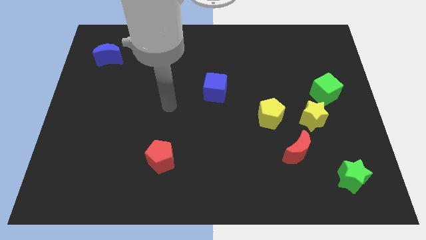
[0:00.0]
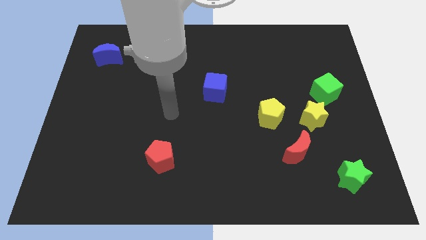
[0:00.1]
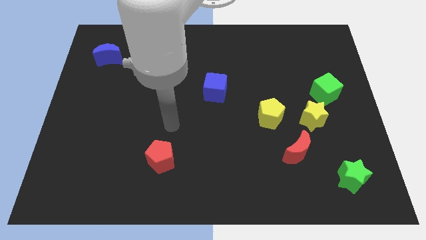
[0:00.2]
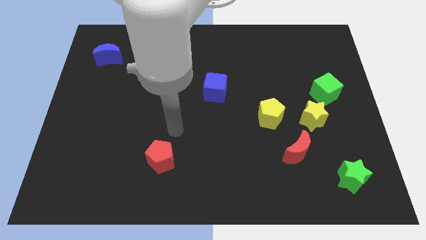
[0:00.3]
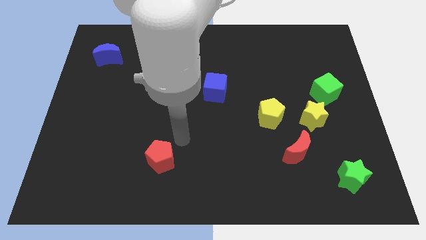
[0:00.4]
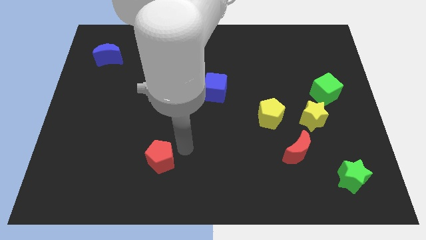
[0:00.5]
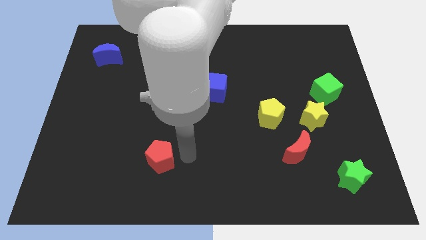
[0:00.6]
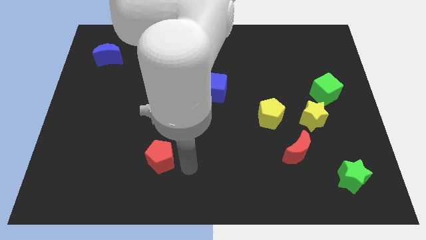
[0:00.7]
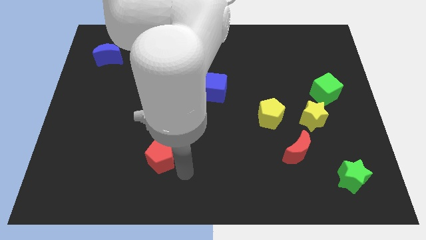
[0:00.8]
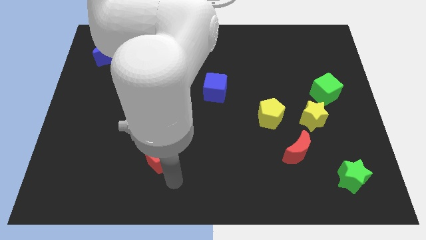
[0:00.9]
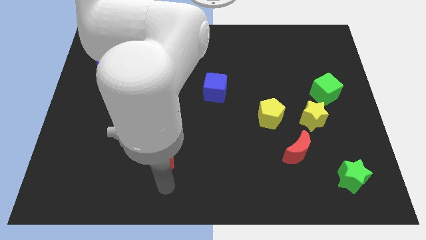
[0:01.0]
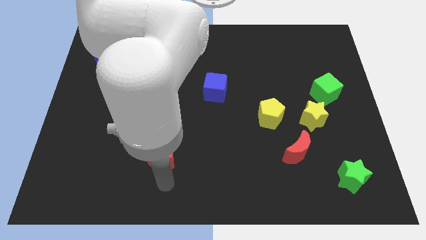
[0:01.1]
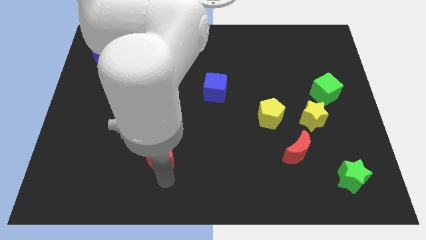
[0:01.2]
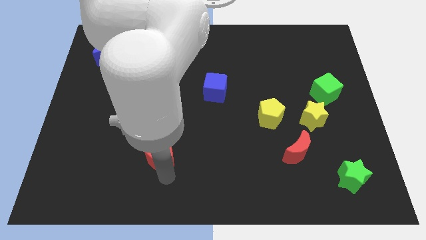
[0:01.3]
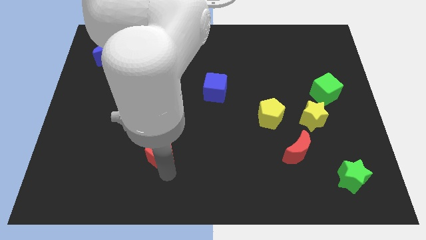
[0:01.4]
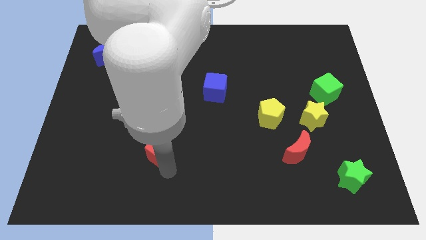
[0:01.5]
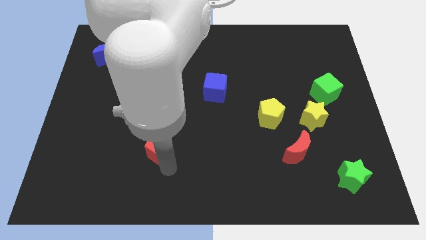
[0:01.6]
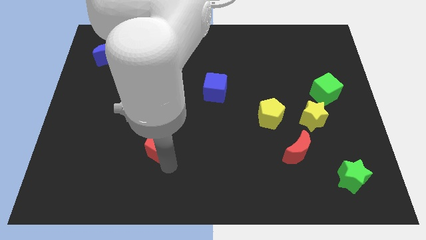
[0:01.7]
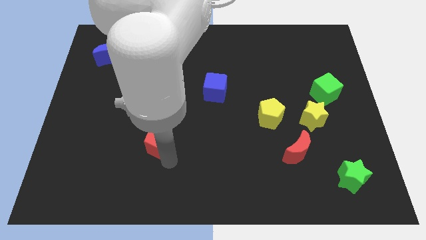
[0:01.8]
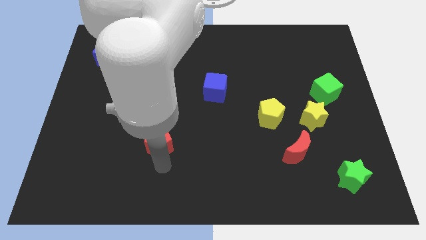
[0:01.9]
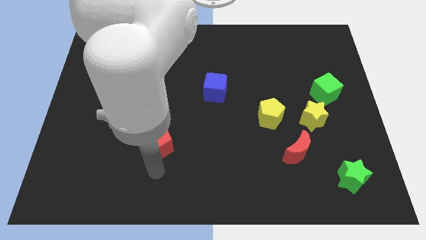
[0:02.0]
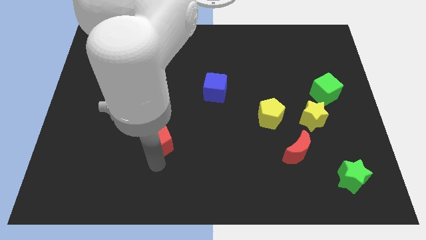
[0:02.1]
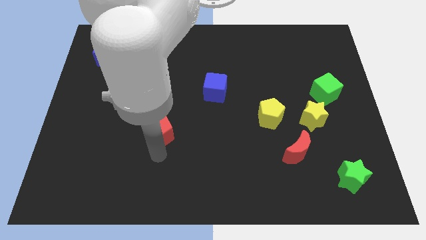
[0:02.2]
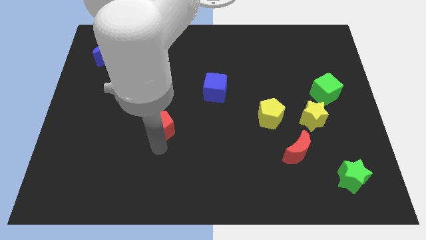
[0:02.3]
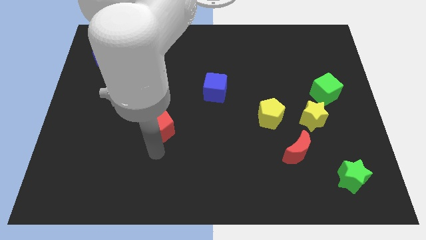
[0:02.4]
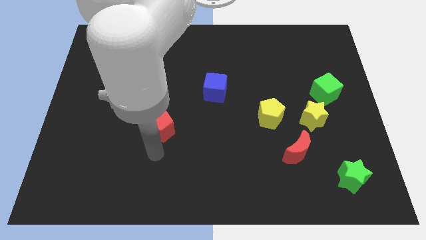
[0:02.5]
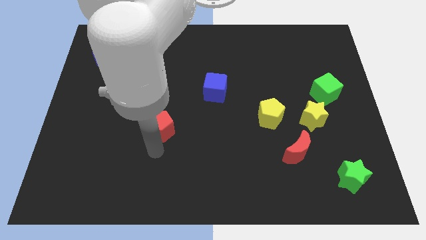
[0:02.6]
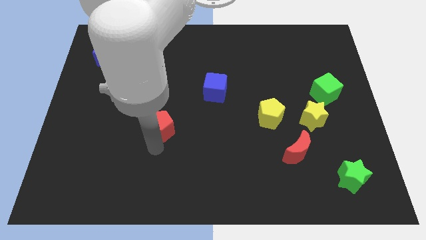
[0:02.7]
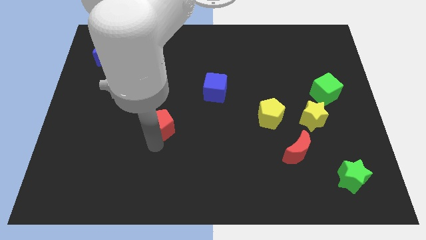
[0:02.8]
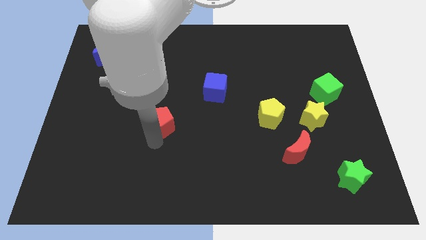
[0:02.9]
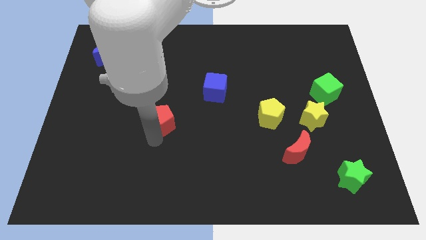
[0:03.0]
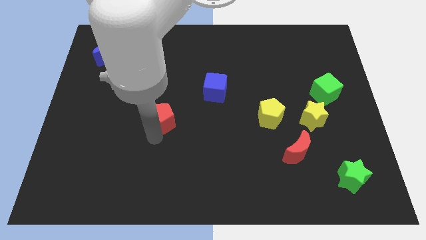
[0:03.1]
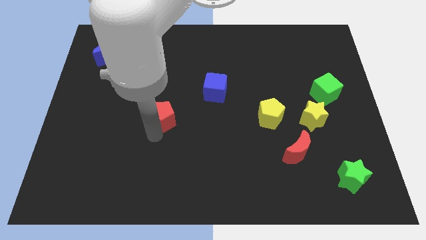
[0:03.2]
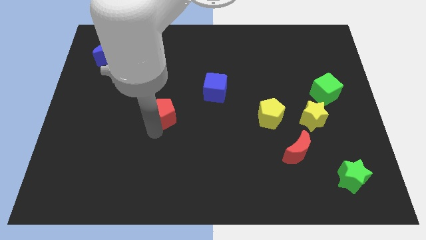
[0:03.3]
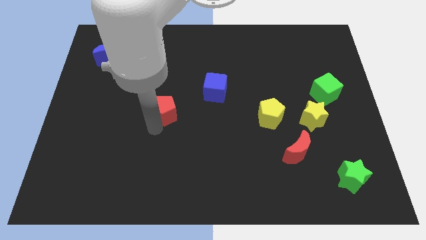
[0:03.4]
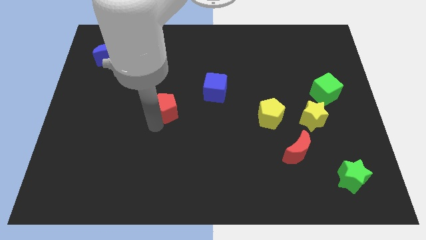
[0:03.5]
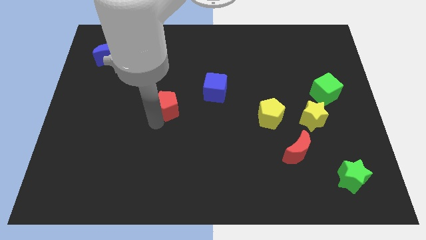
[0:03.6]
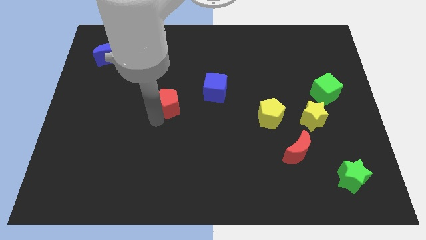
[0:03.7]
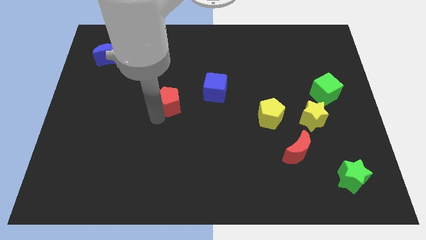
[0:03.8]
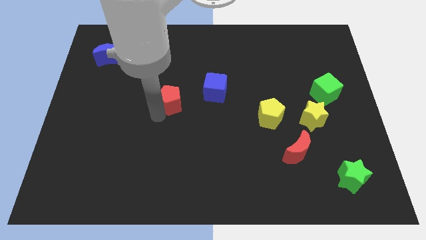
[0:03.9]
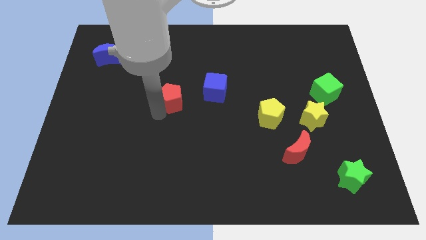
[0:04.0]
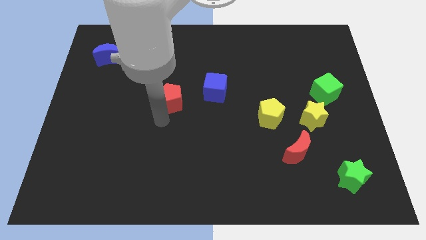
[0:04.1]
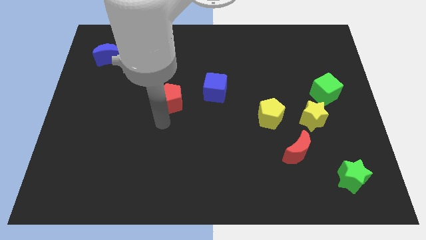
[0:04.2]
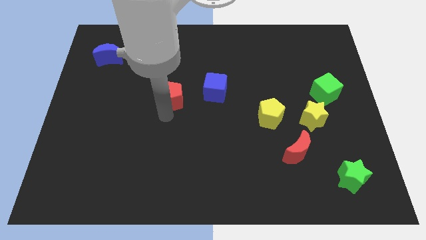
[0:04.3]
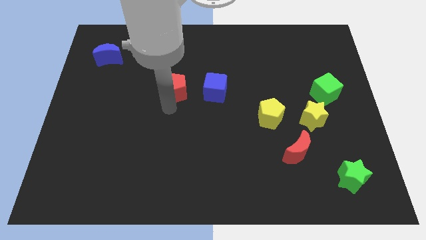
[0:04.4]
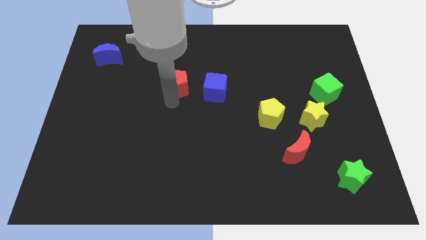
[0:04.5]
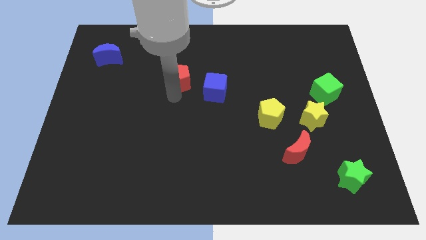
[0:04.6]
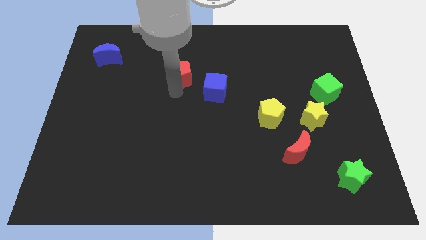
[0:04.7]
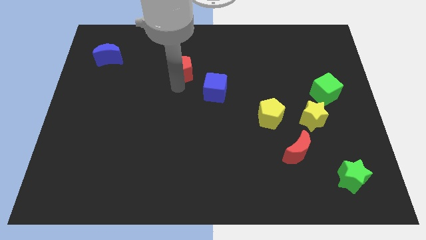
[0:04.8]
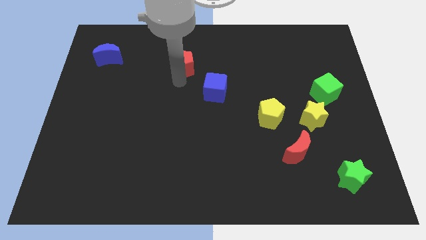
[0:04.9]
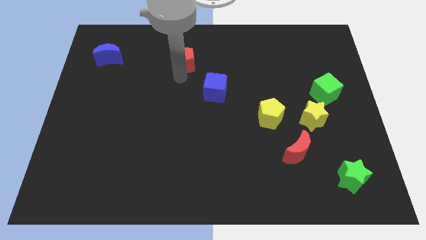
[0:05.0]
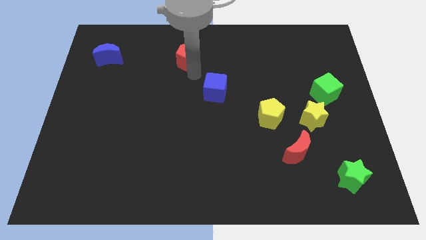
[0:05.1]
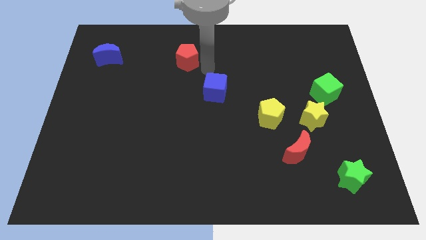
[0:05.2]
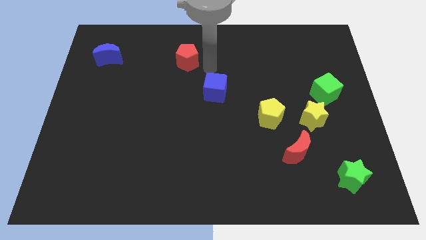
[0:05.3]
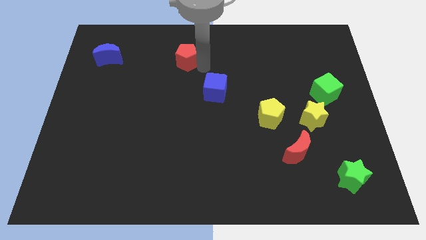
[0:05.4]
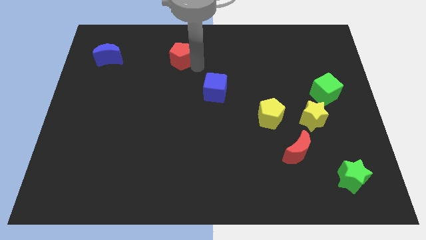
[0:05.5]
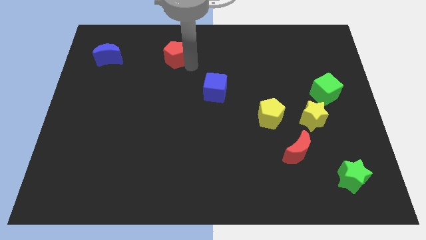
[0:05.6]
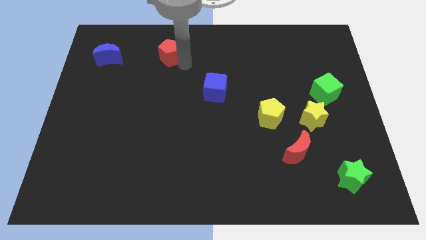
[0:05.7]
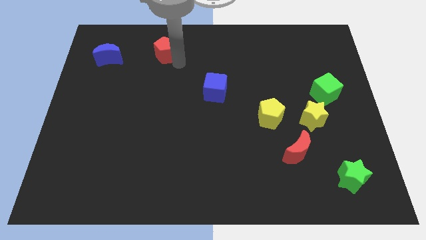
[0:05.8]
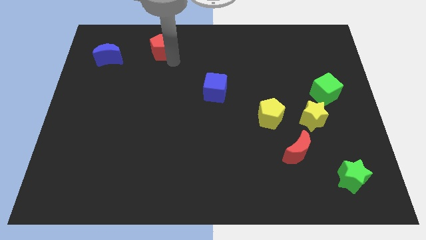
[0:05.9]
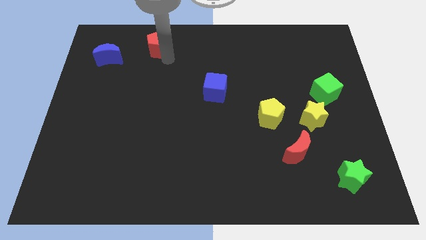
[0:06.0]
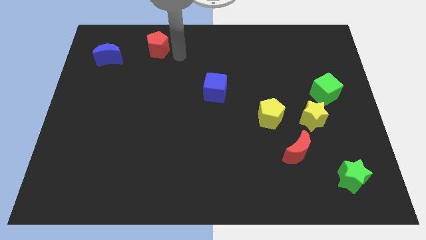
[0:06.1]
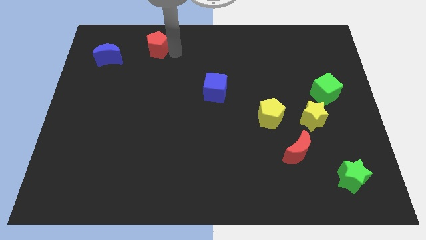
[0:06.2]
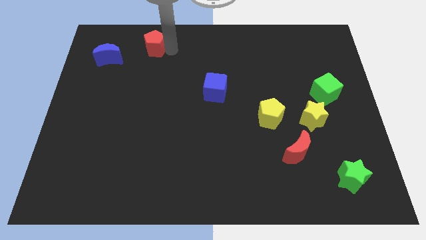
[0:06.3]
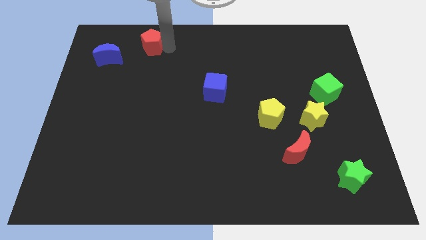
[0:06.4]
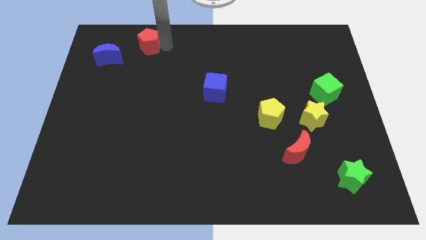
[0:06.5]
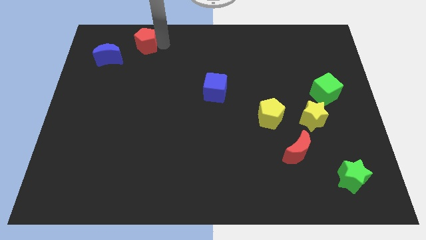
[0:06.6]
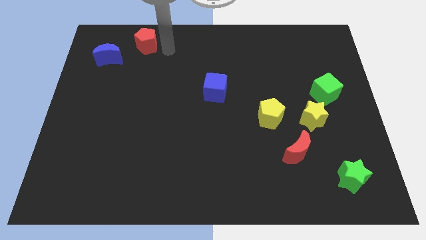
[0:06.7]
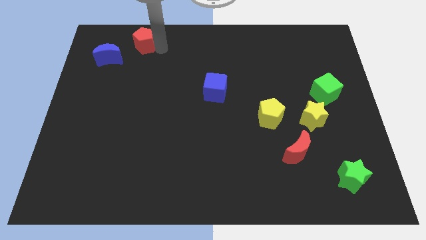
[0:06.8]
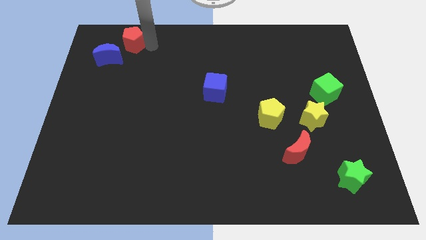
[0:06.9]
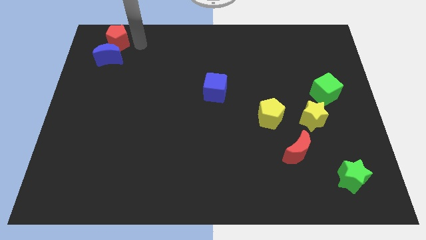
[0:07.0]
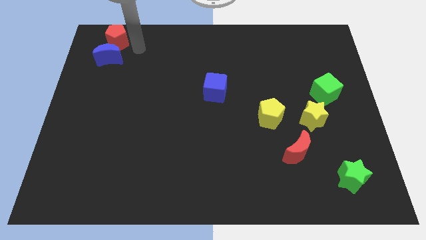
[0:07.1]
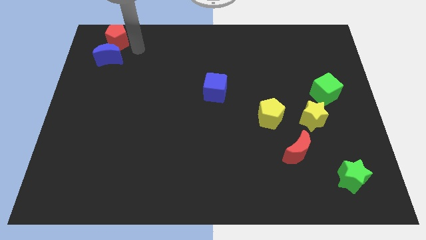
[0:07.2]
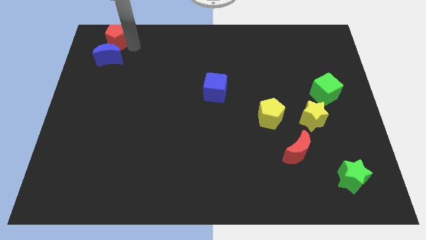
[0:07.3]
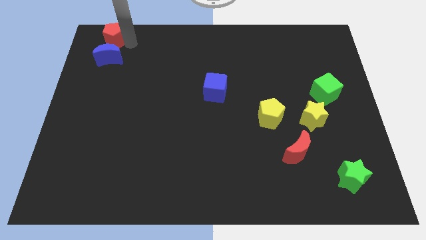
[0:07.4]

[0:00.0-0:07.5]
push the red pentagon to the top left of the board
